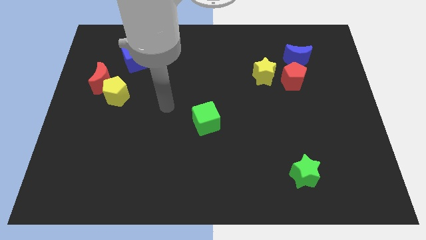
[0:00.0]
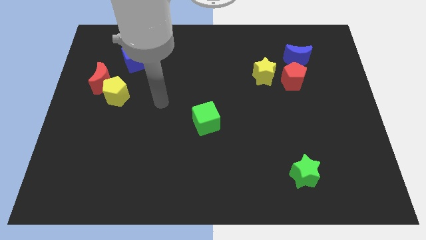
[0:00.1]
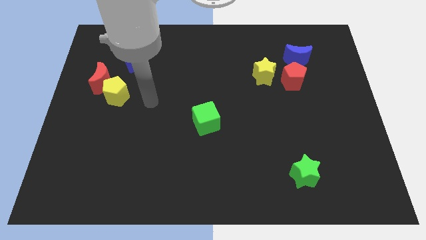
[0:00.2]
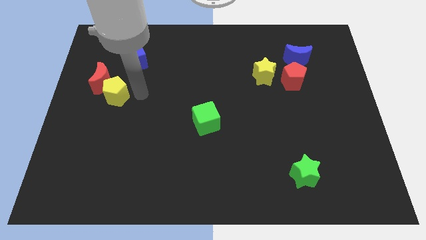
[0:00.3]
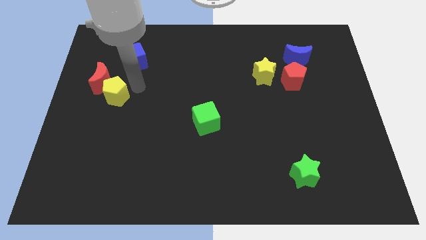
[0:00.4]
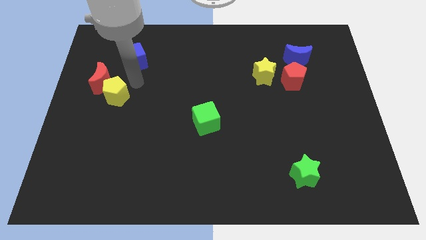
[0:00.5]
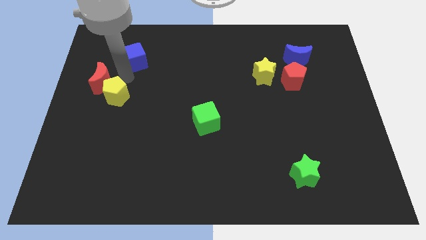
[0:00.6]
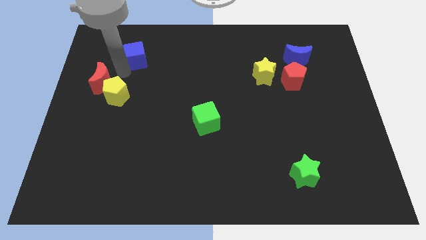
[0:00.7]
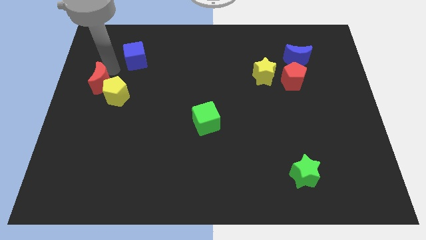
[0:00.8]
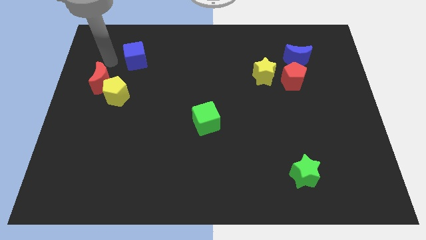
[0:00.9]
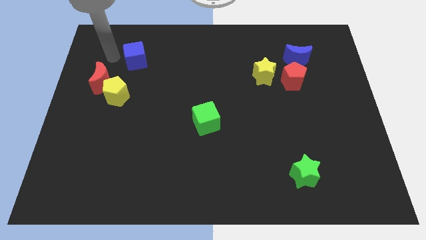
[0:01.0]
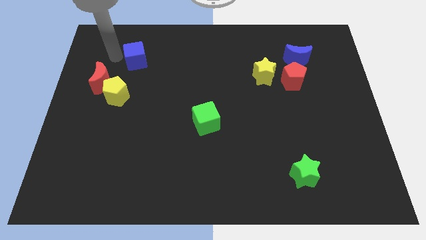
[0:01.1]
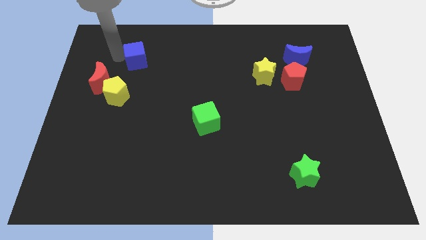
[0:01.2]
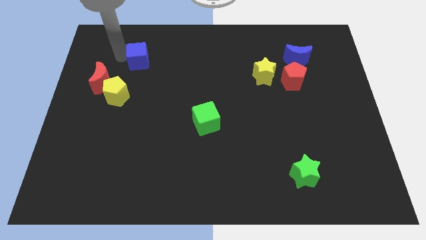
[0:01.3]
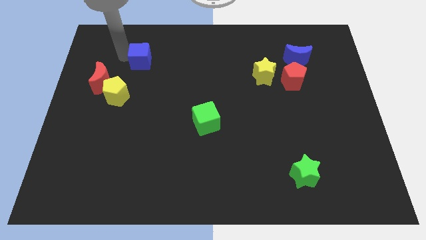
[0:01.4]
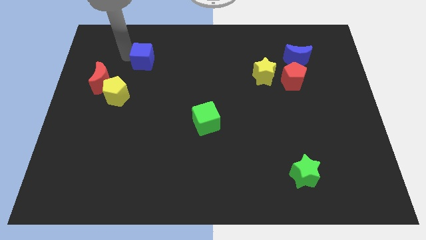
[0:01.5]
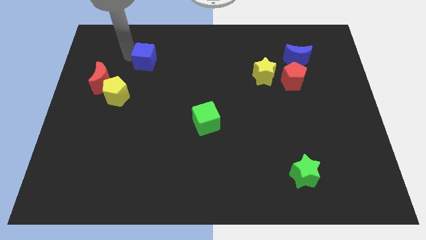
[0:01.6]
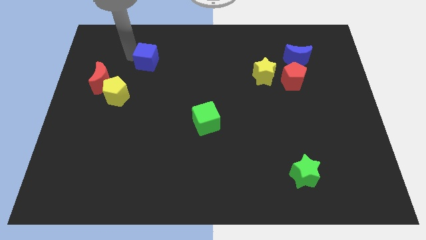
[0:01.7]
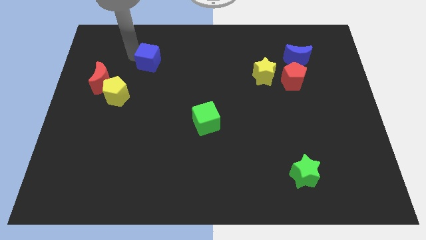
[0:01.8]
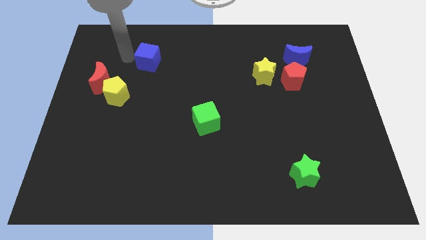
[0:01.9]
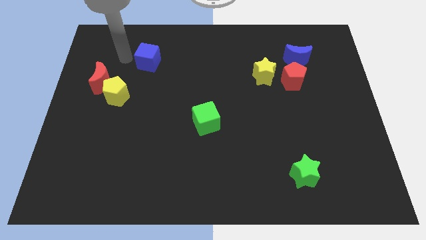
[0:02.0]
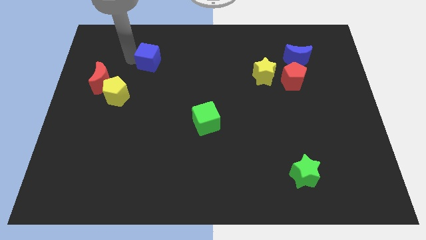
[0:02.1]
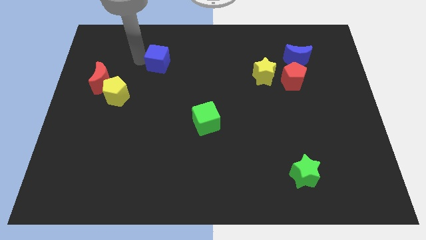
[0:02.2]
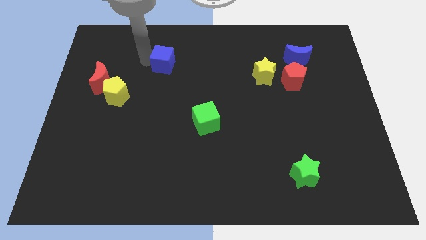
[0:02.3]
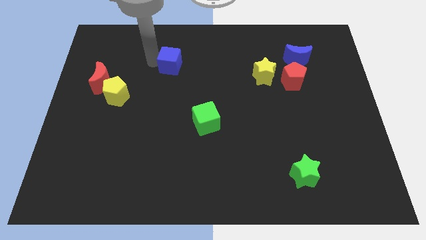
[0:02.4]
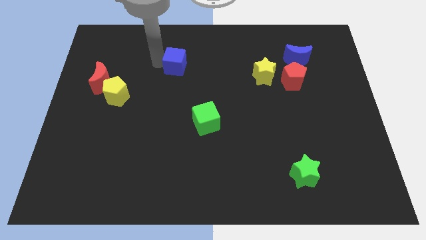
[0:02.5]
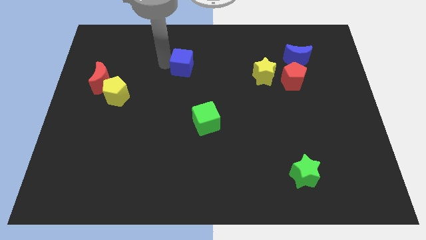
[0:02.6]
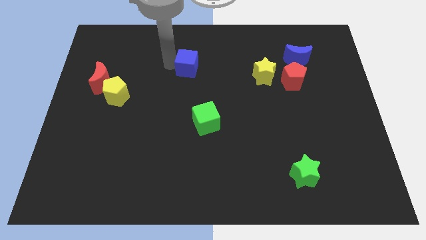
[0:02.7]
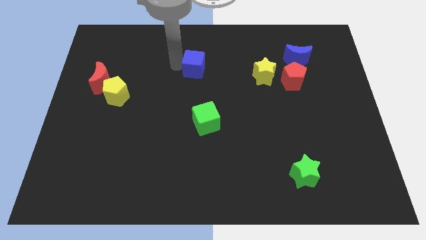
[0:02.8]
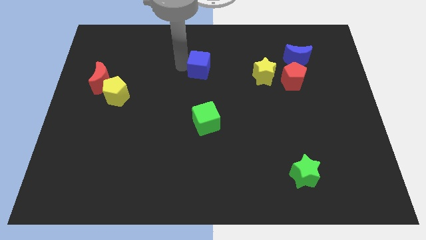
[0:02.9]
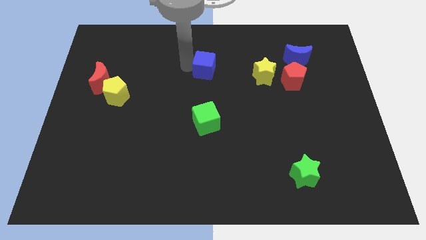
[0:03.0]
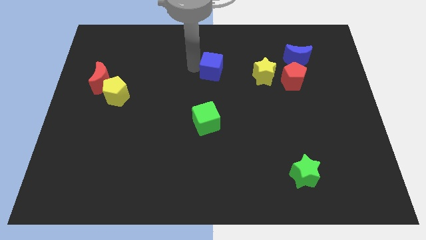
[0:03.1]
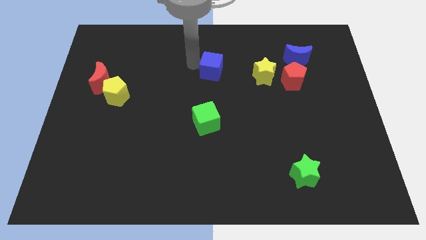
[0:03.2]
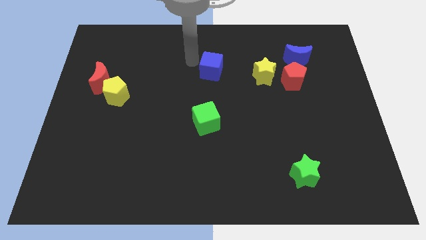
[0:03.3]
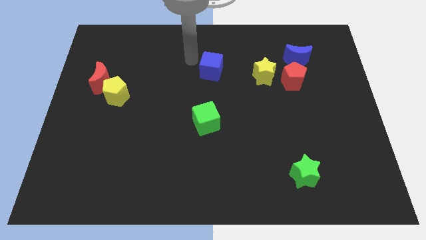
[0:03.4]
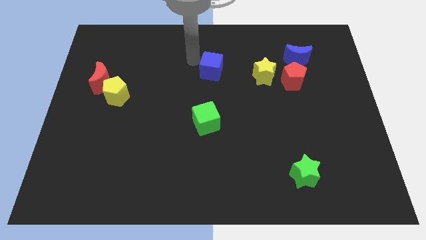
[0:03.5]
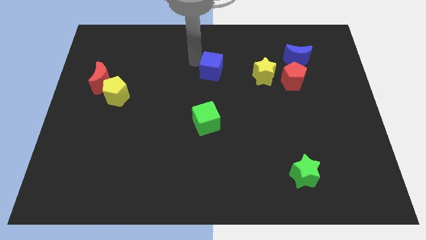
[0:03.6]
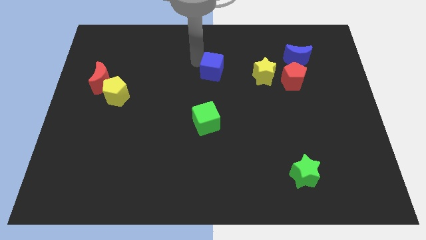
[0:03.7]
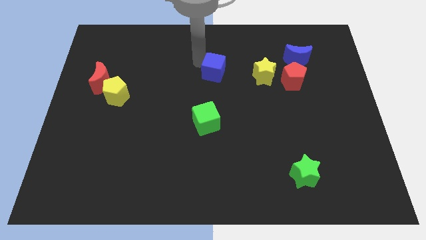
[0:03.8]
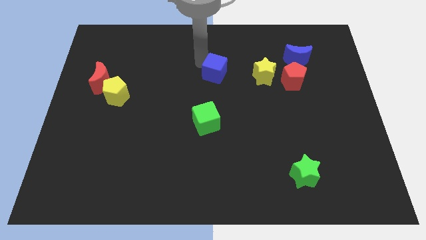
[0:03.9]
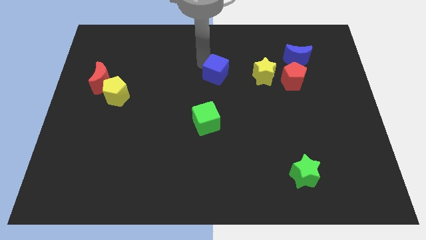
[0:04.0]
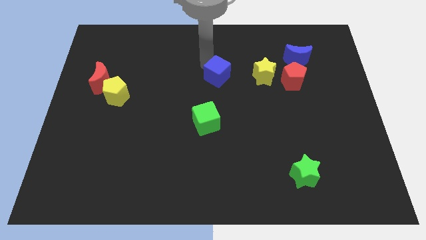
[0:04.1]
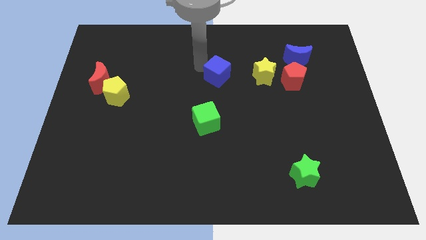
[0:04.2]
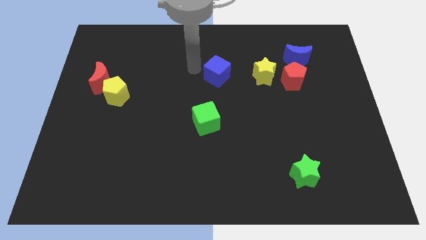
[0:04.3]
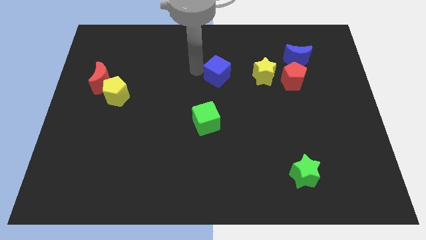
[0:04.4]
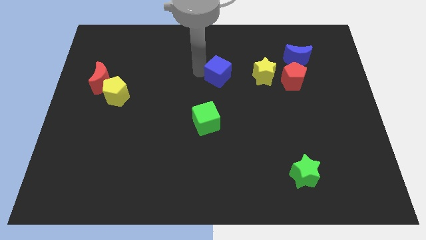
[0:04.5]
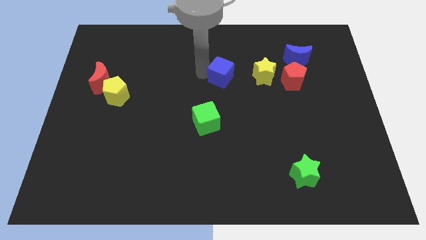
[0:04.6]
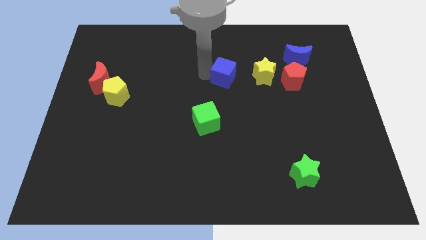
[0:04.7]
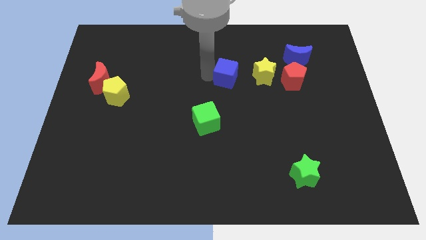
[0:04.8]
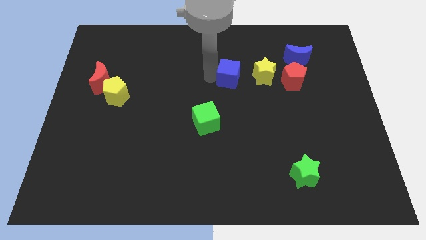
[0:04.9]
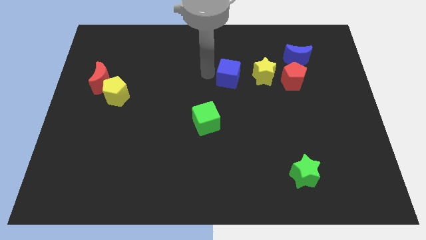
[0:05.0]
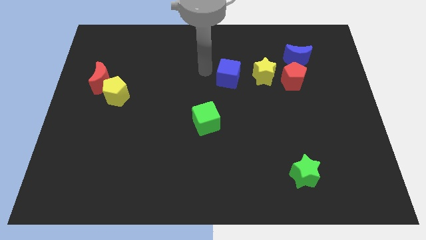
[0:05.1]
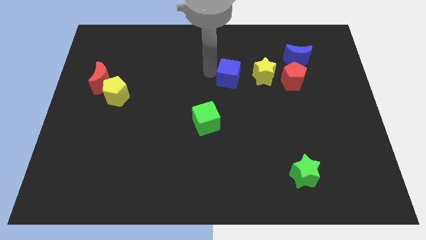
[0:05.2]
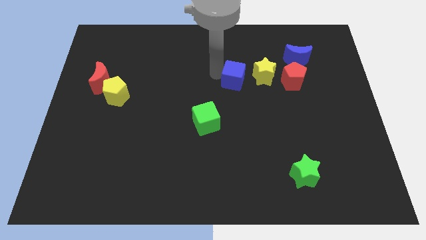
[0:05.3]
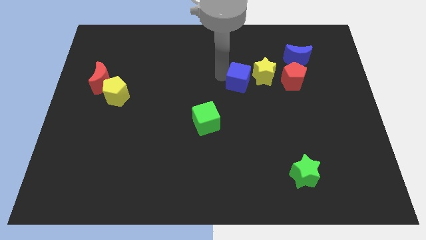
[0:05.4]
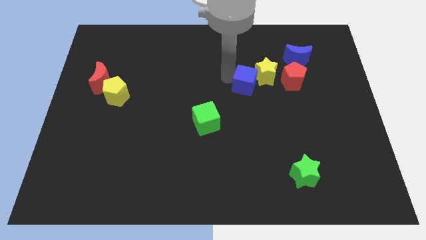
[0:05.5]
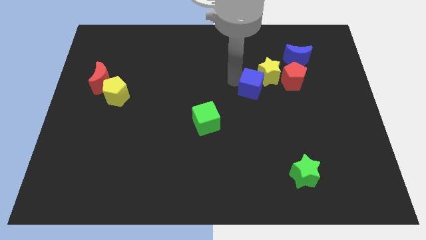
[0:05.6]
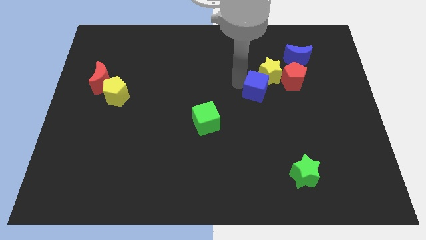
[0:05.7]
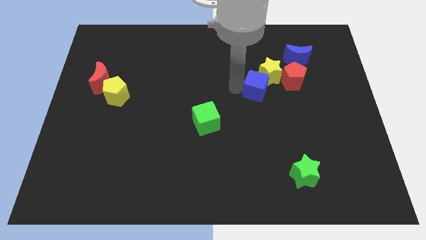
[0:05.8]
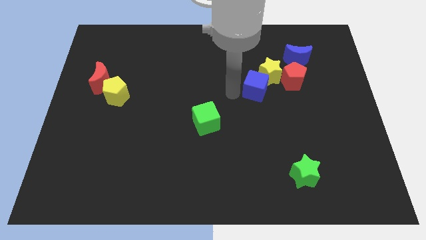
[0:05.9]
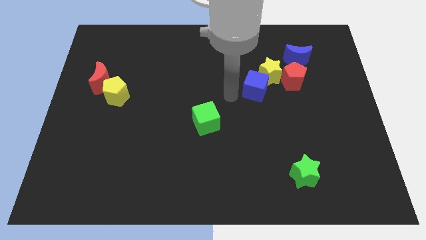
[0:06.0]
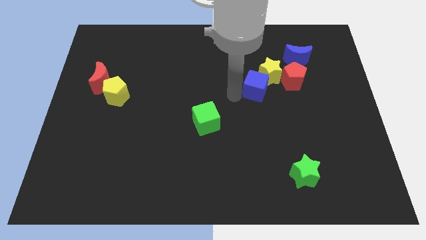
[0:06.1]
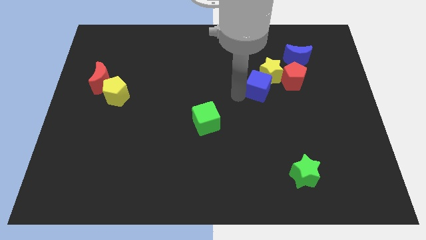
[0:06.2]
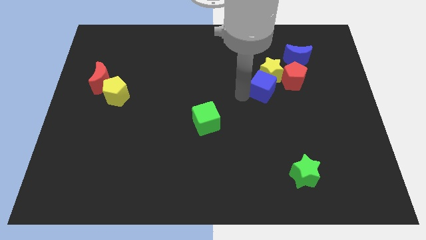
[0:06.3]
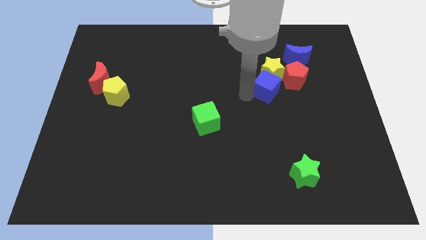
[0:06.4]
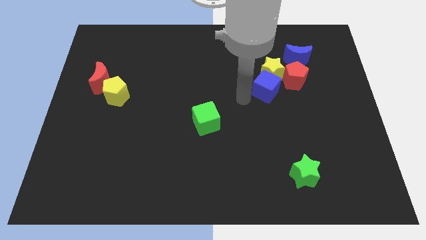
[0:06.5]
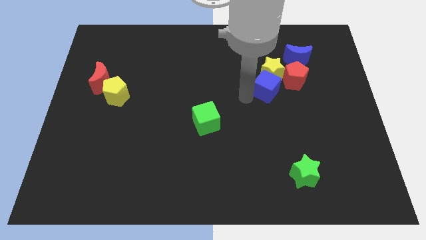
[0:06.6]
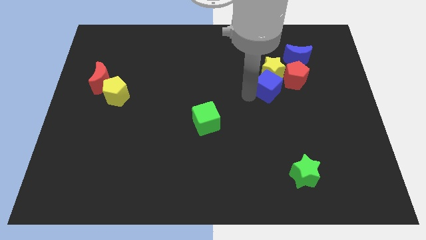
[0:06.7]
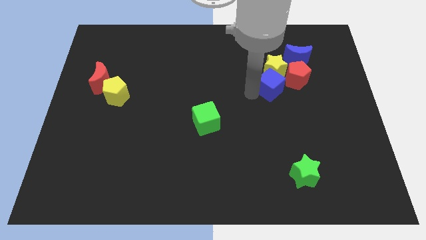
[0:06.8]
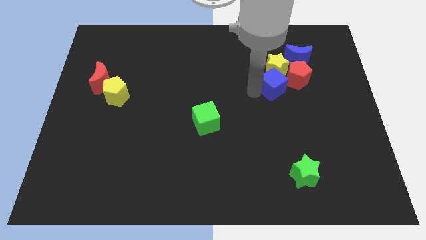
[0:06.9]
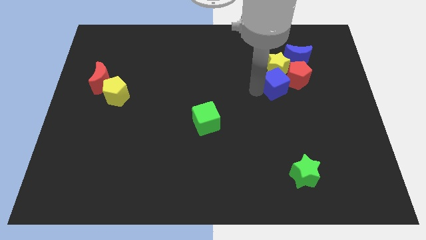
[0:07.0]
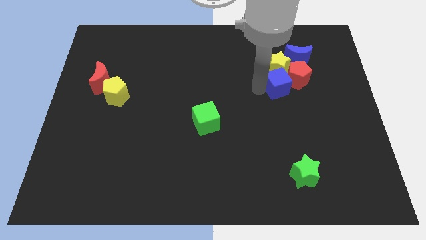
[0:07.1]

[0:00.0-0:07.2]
push the blue cube next to the red pentagon

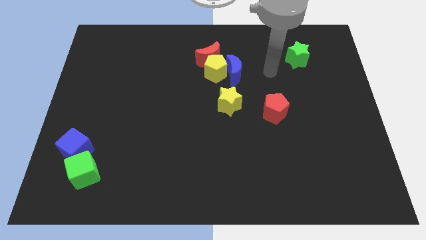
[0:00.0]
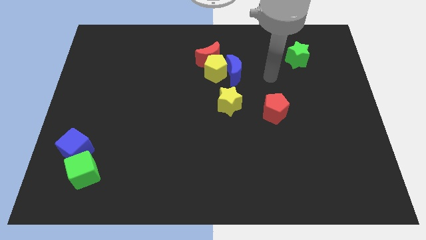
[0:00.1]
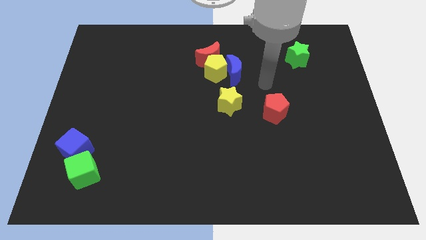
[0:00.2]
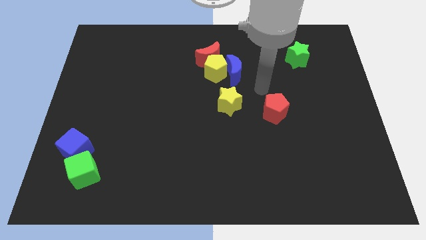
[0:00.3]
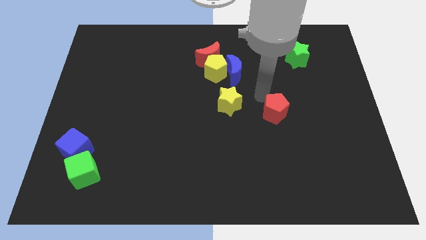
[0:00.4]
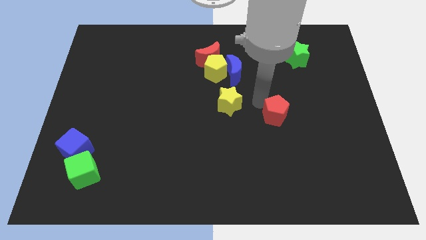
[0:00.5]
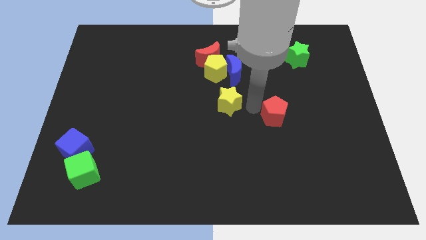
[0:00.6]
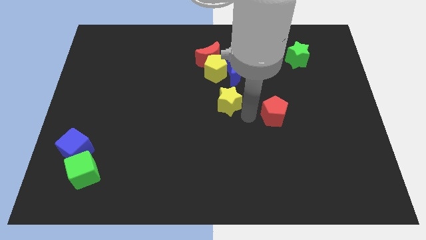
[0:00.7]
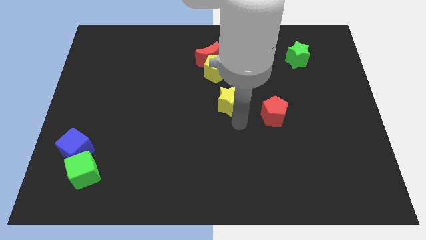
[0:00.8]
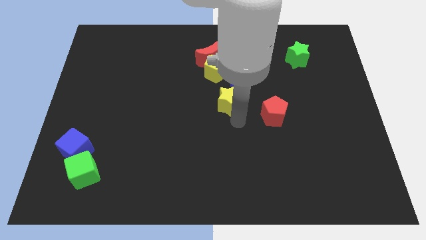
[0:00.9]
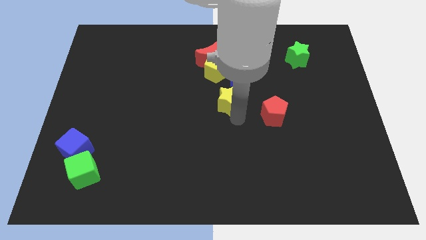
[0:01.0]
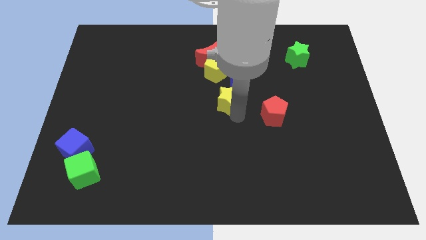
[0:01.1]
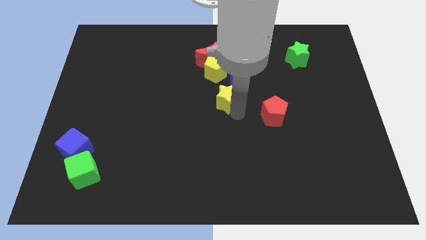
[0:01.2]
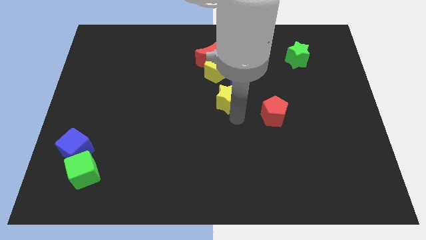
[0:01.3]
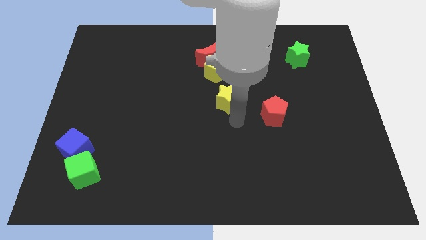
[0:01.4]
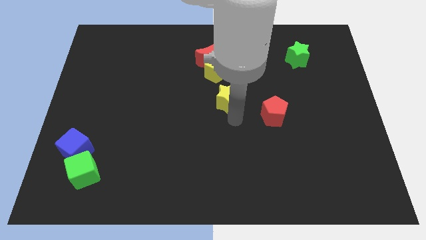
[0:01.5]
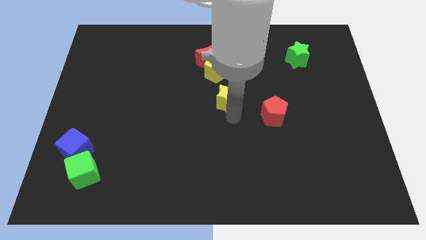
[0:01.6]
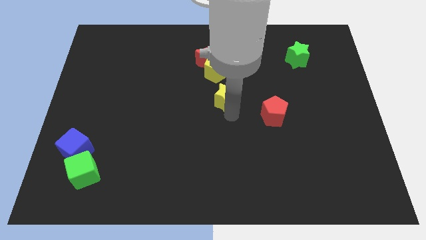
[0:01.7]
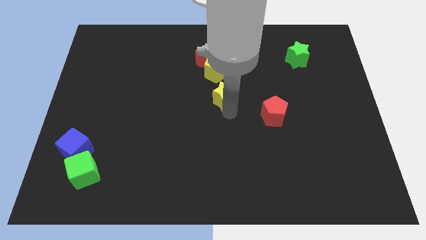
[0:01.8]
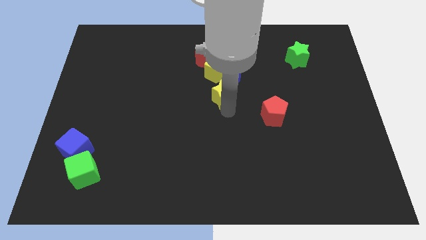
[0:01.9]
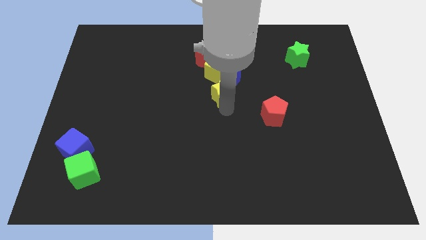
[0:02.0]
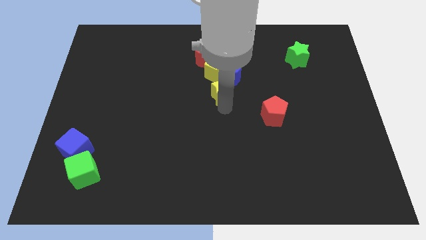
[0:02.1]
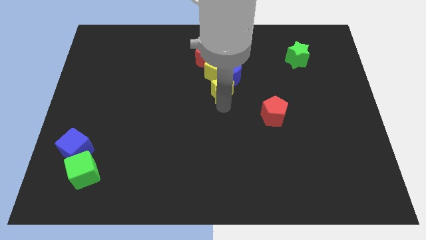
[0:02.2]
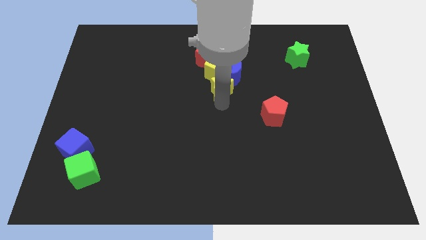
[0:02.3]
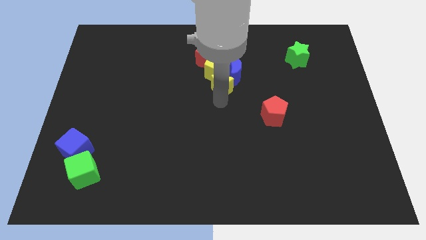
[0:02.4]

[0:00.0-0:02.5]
move the yellow star next to the yellow pentagon
